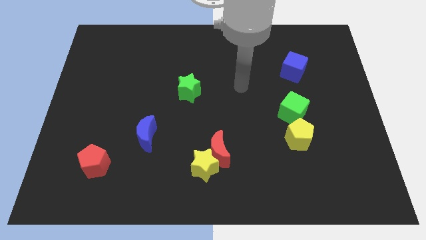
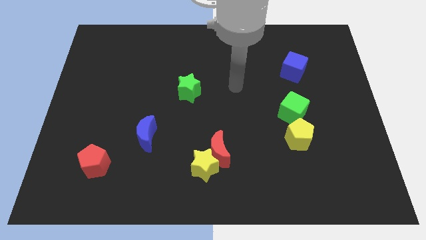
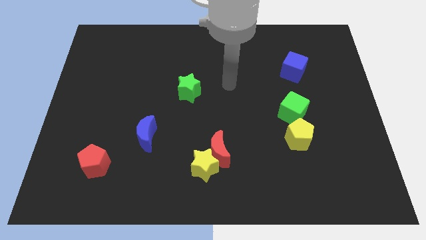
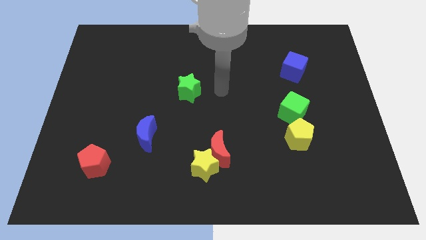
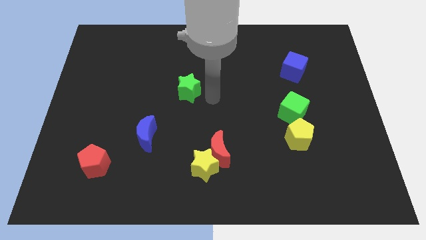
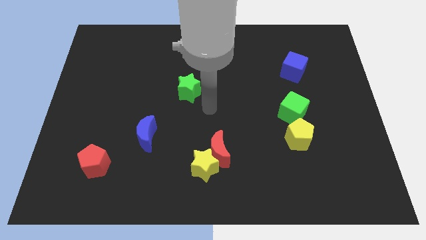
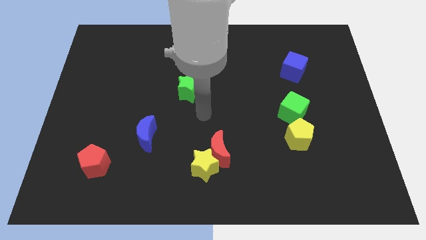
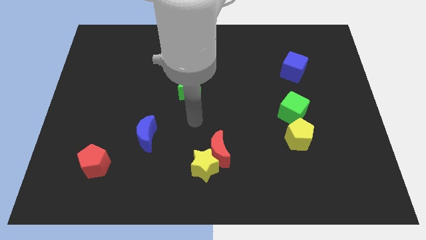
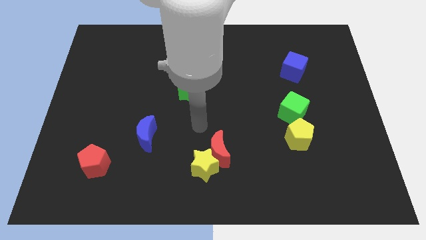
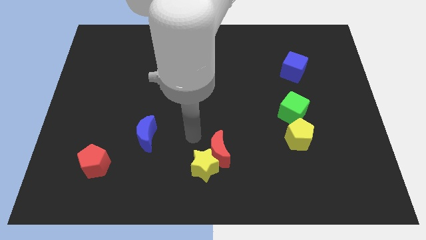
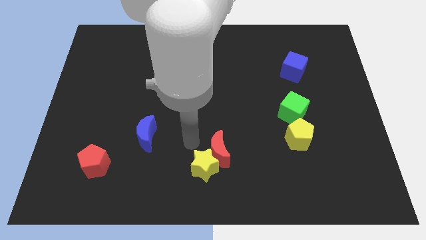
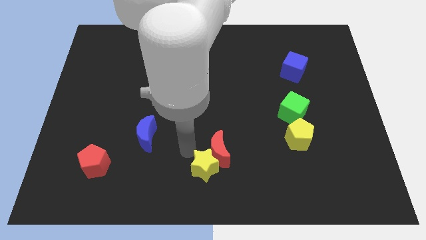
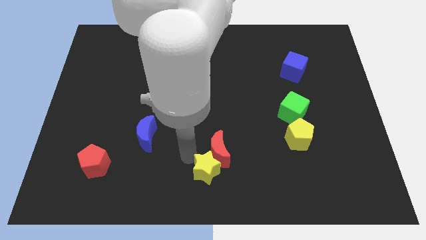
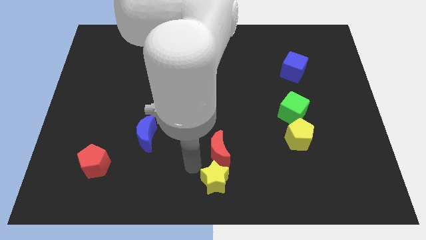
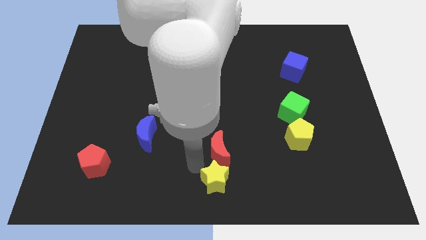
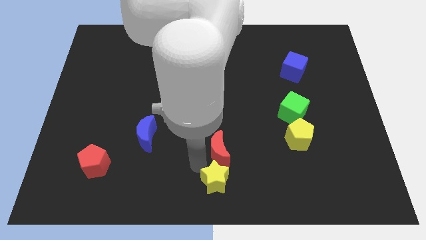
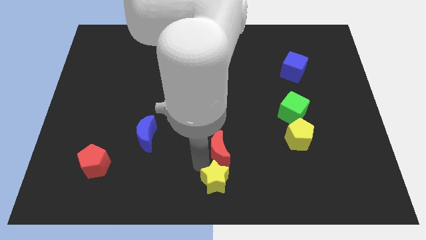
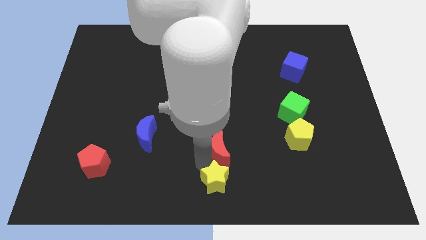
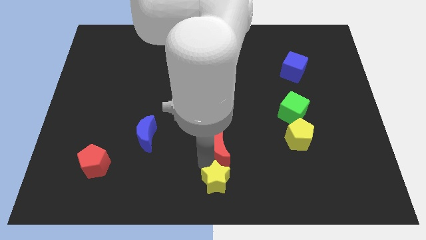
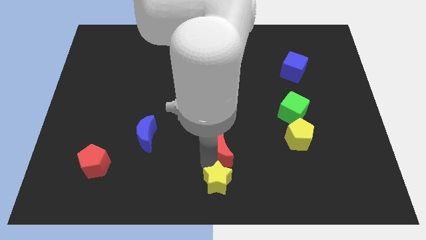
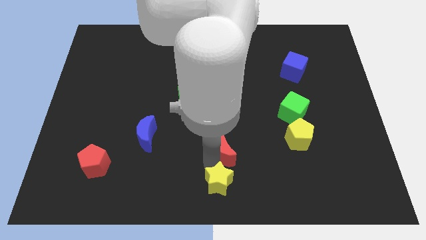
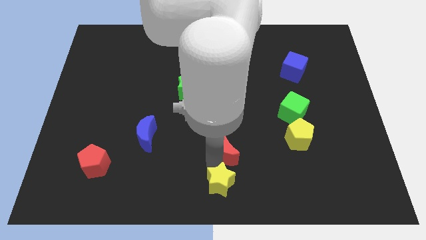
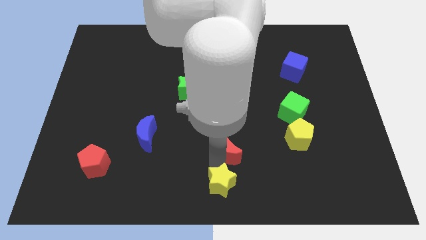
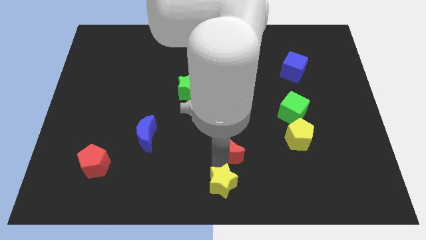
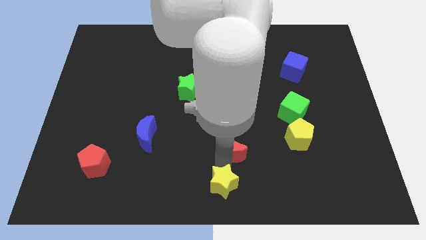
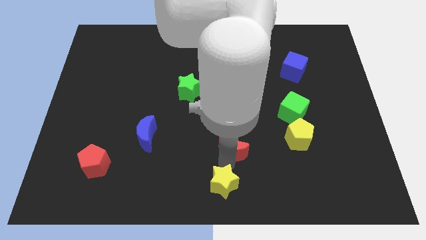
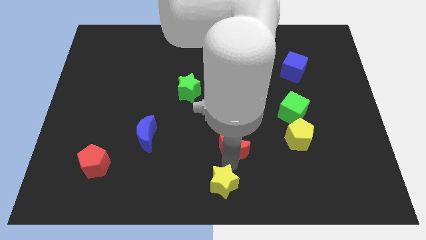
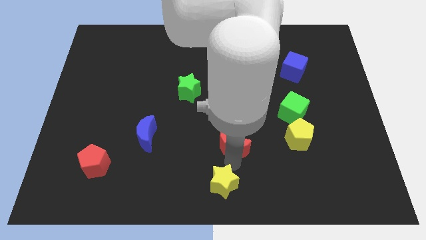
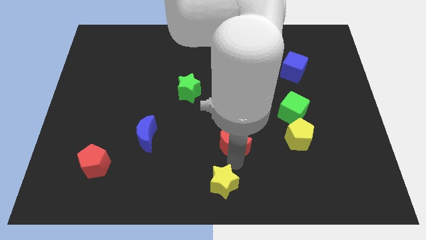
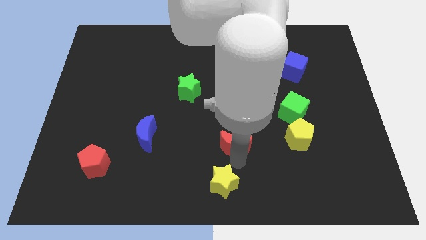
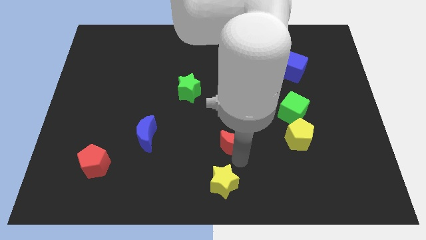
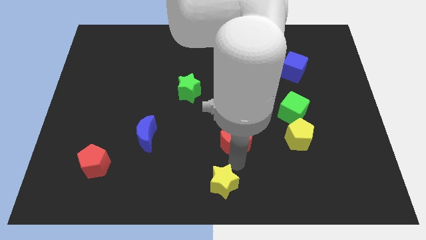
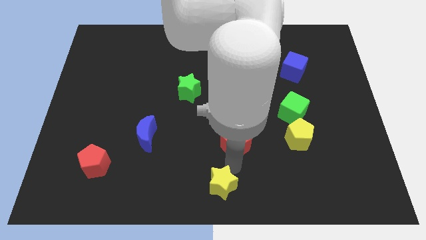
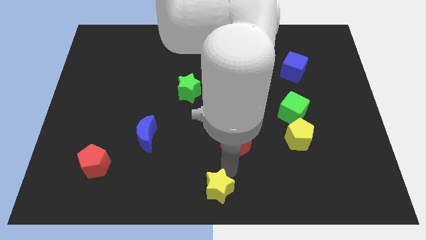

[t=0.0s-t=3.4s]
separate the red moon from the yellow star

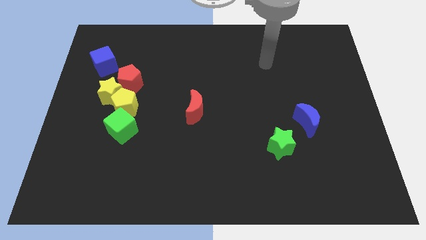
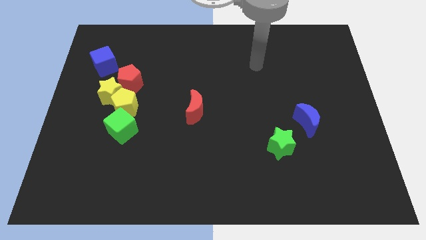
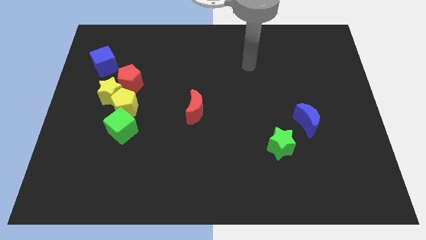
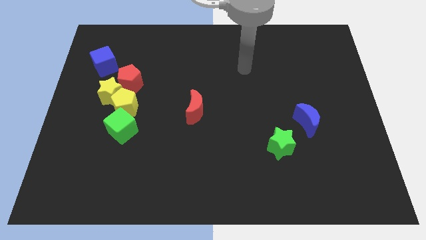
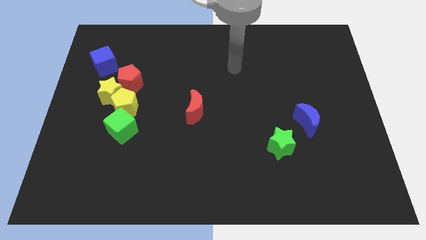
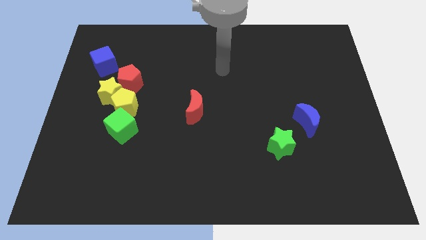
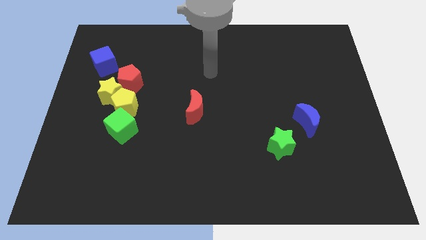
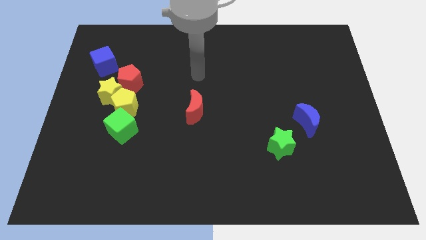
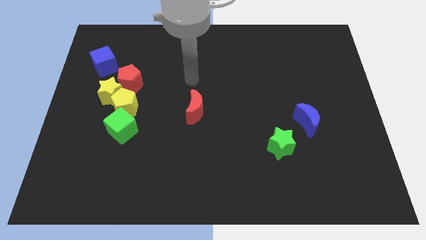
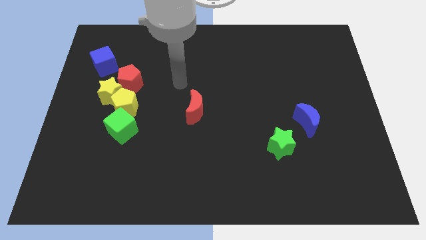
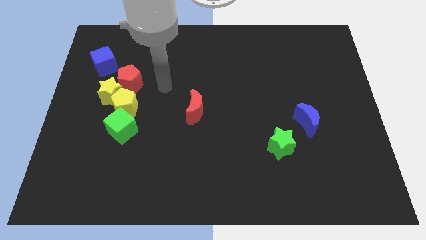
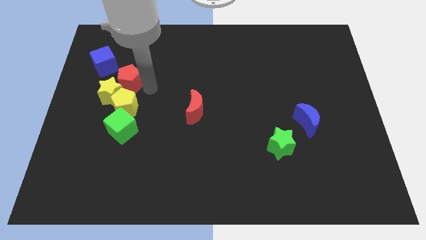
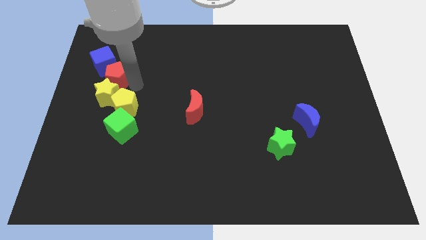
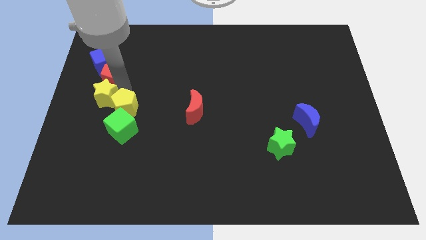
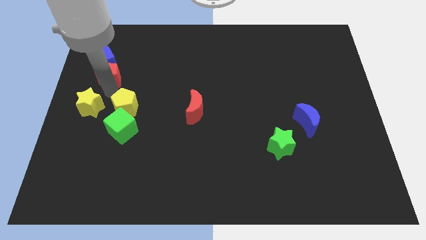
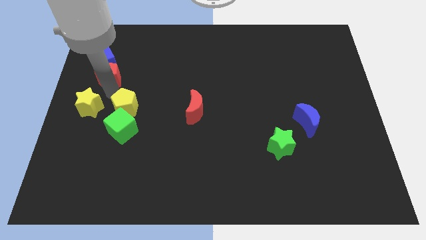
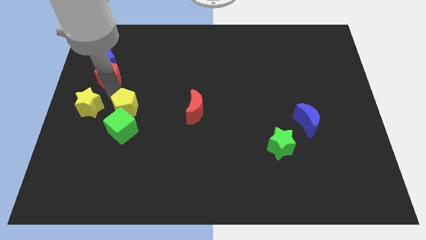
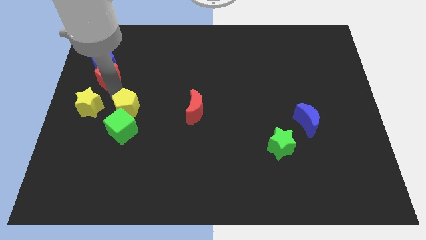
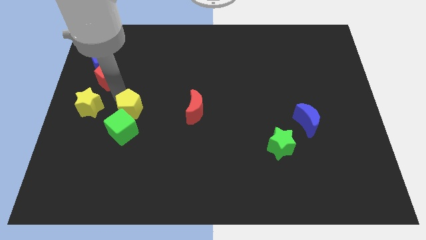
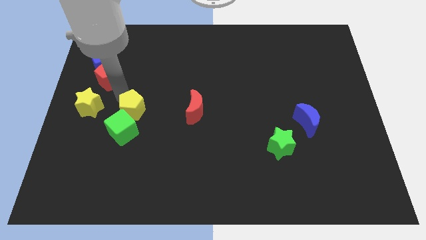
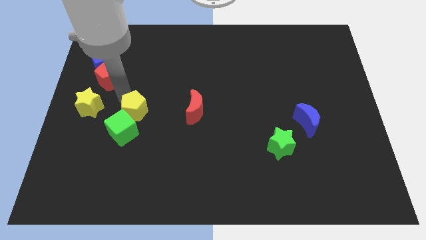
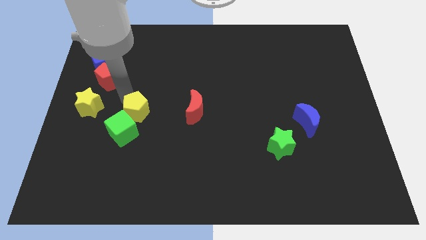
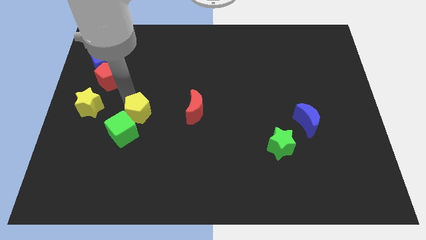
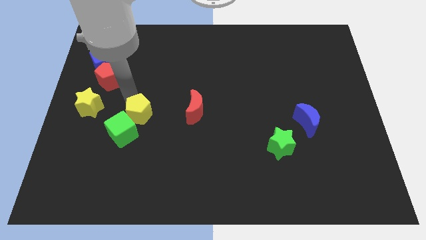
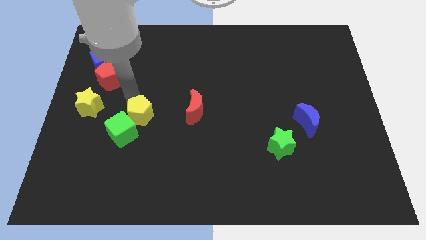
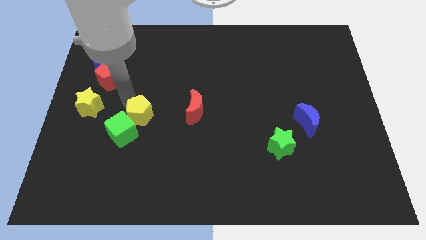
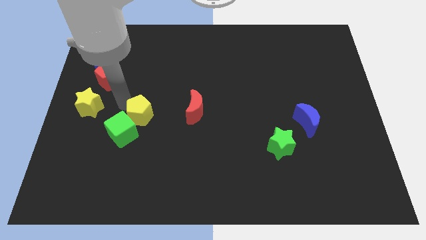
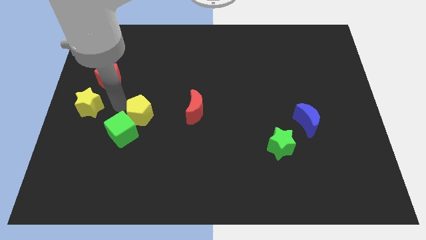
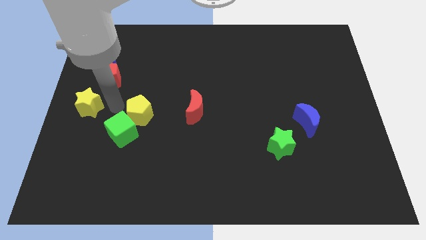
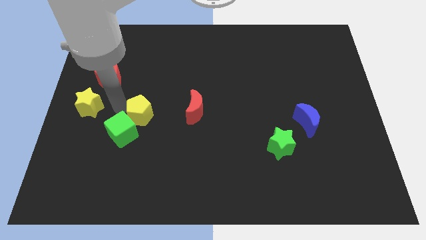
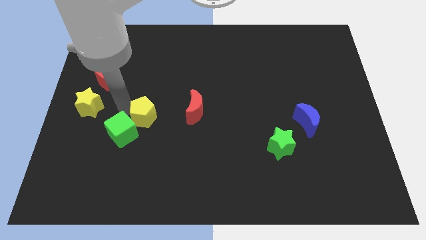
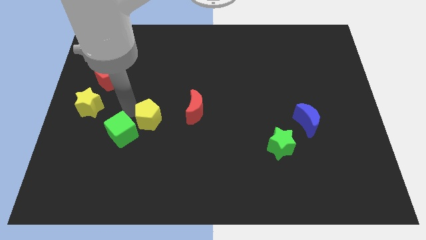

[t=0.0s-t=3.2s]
separate the yellow pentagon from the yellow star, green cube, and red pentagon

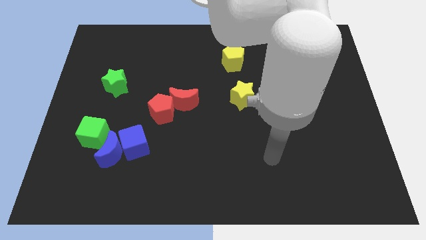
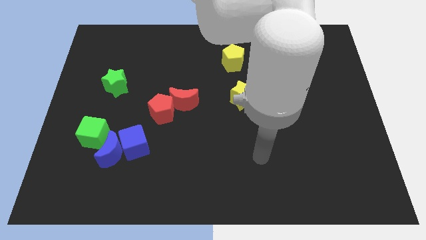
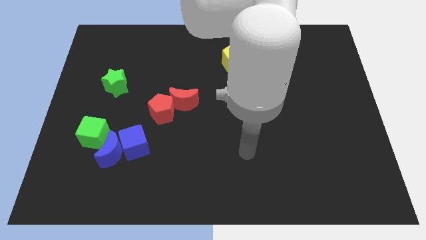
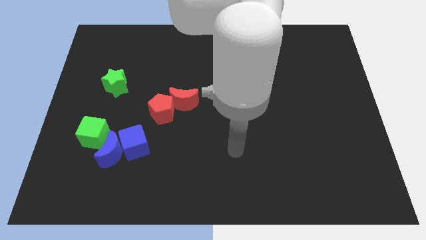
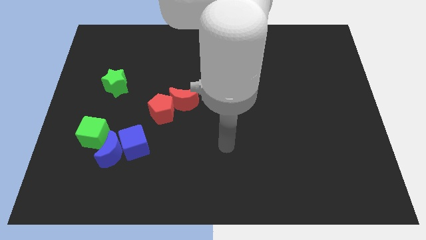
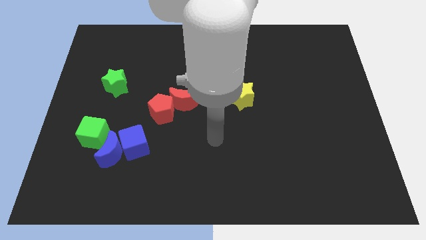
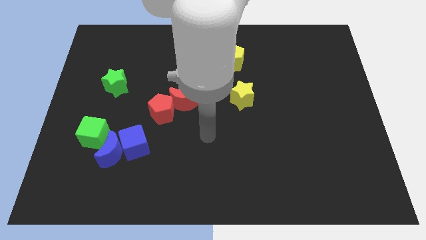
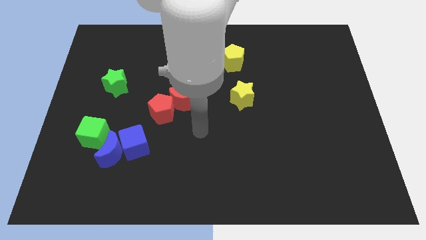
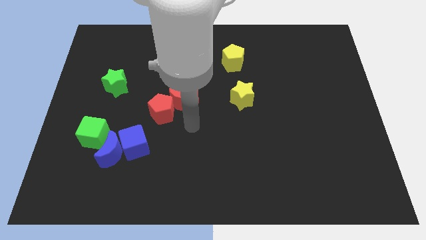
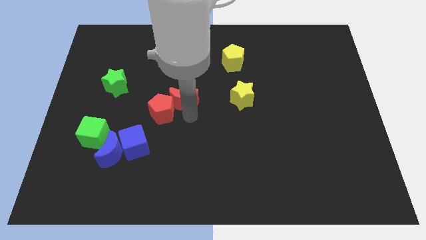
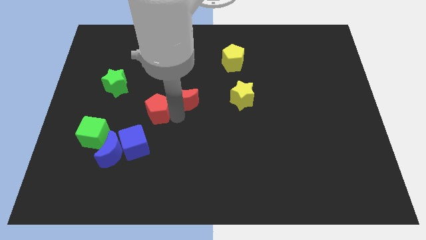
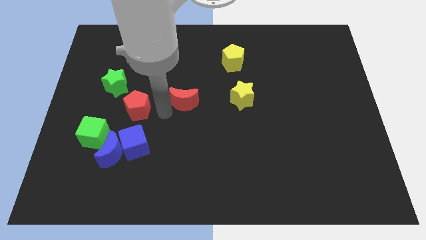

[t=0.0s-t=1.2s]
move the red moon away from the red pentagon

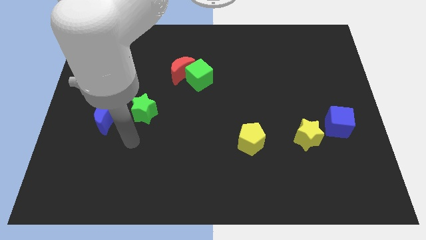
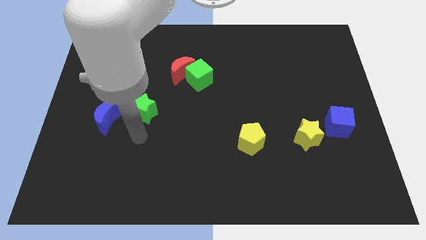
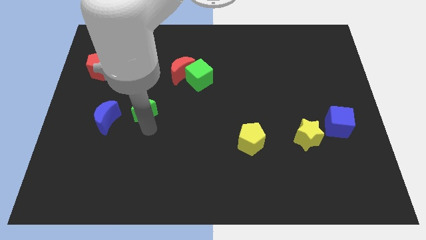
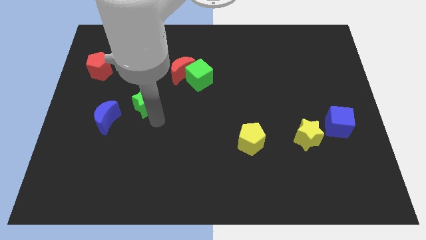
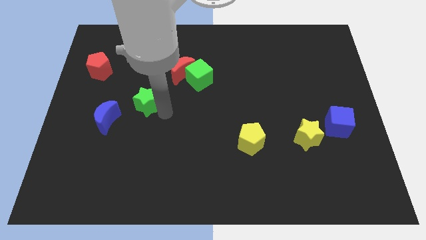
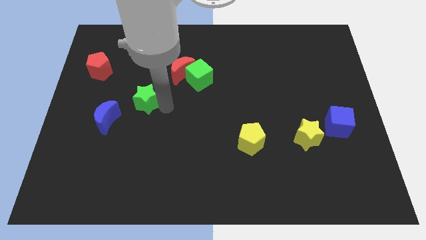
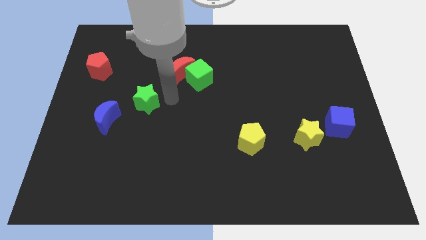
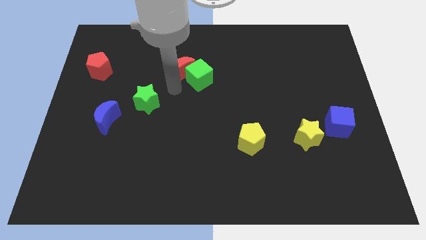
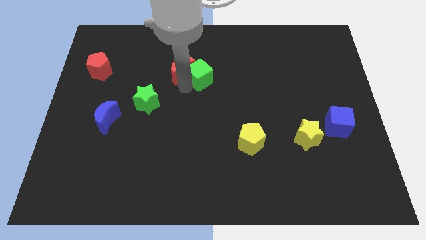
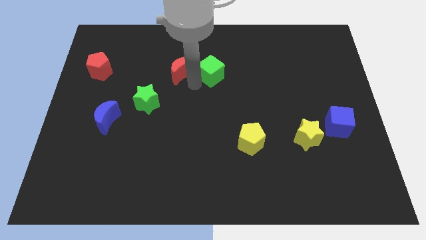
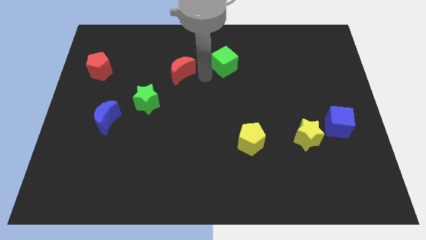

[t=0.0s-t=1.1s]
pull the red moon apart from the green cube

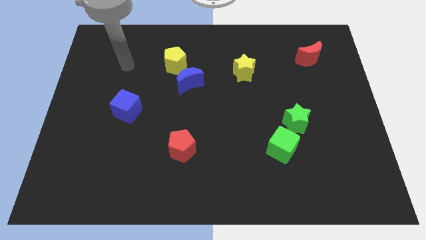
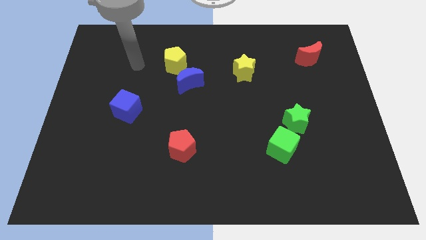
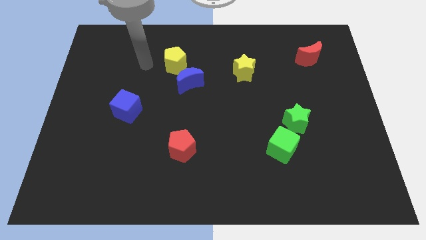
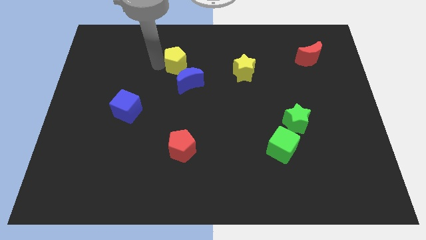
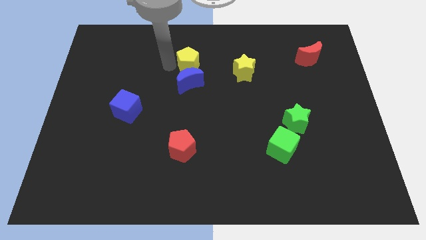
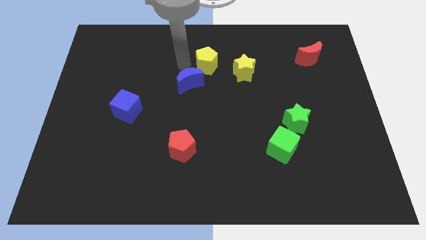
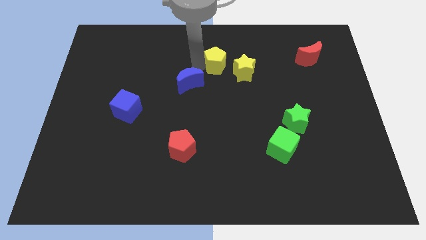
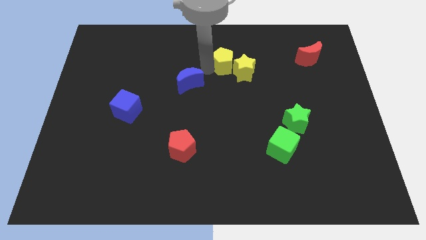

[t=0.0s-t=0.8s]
pull the blue moon apart from the yellow pentagon
